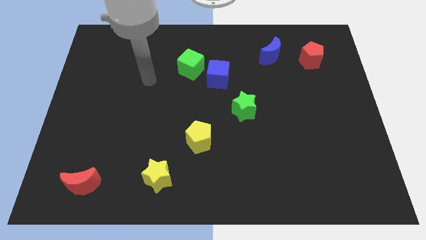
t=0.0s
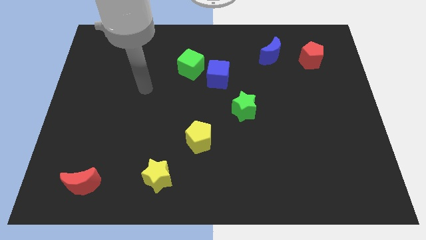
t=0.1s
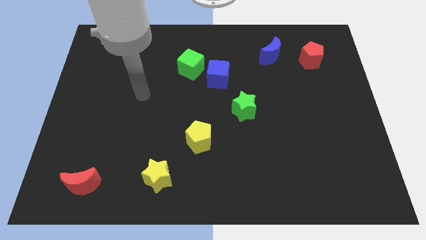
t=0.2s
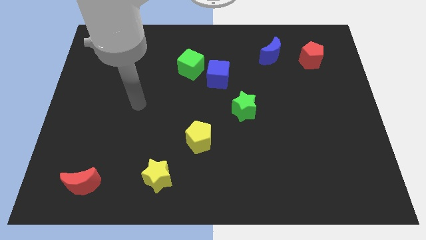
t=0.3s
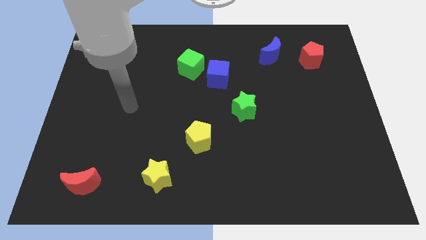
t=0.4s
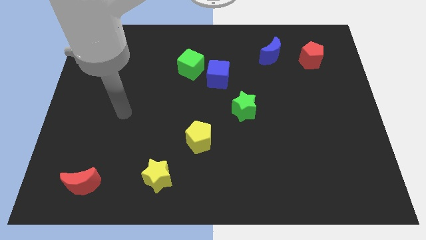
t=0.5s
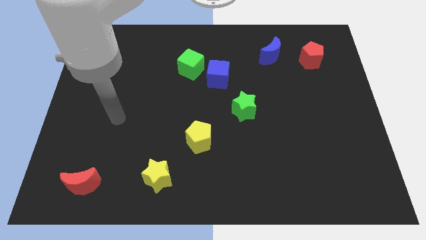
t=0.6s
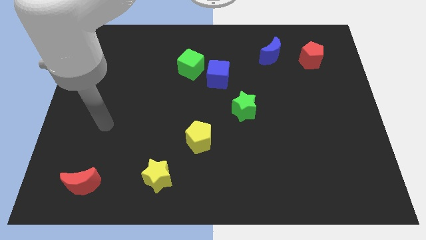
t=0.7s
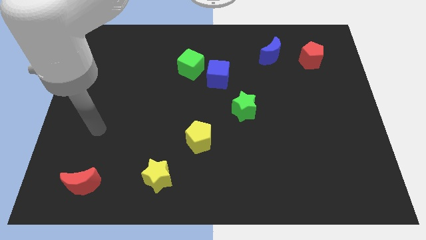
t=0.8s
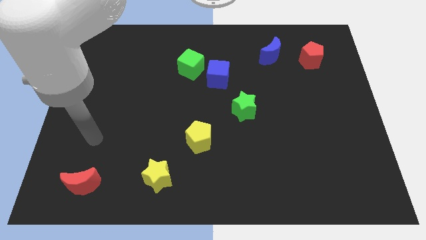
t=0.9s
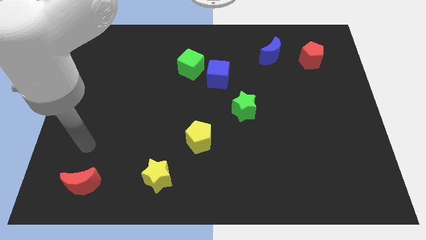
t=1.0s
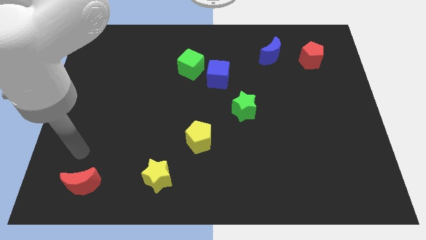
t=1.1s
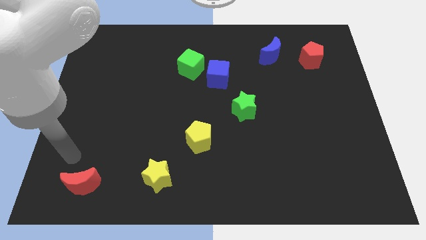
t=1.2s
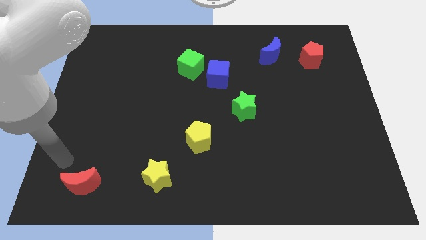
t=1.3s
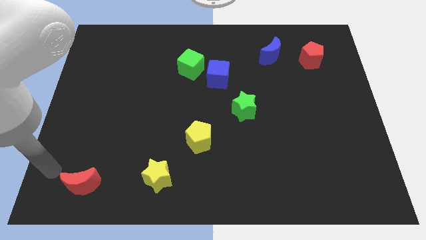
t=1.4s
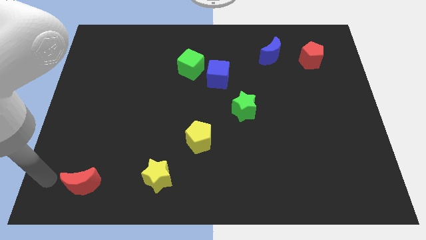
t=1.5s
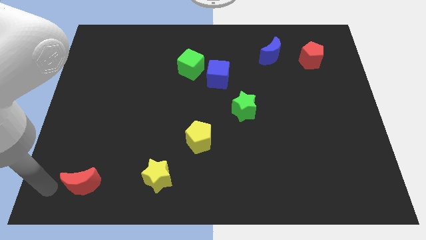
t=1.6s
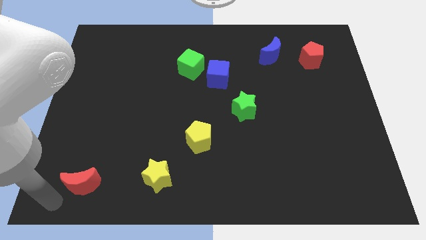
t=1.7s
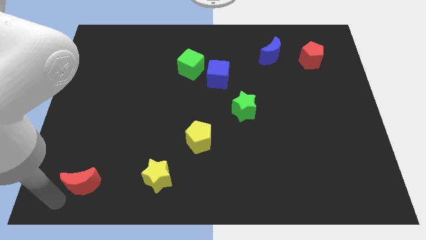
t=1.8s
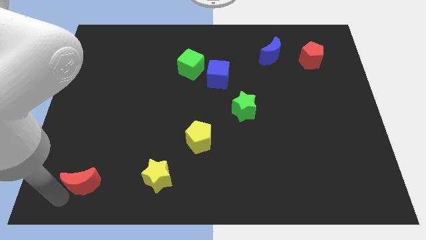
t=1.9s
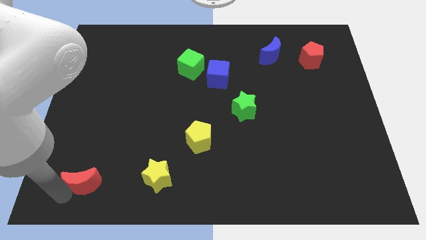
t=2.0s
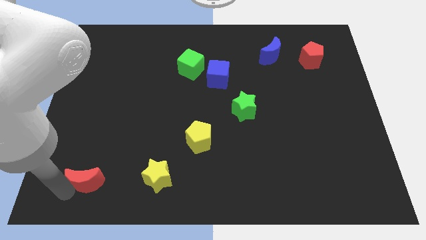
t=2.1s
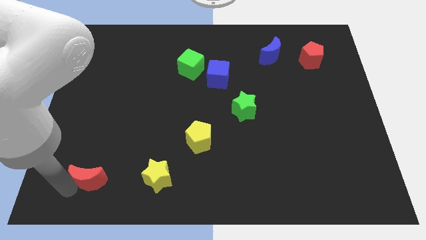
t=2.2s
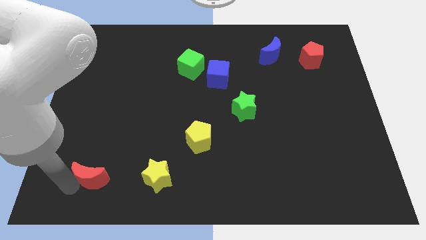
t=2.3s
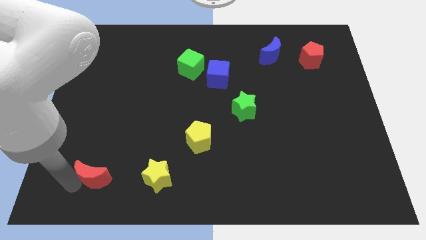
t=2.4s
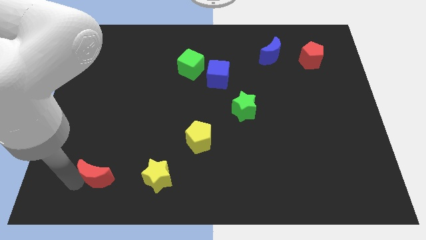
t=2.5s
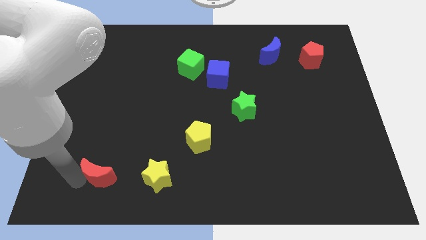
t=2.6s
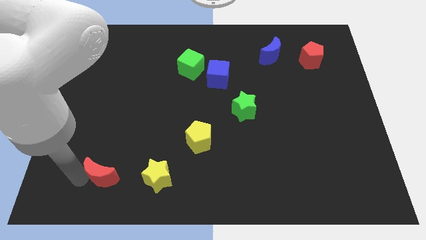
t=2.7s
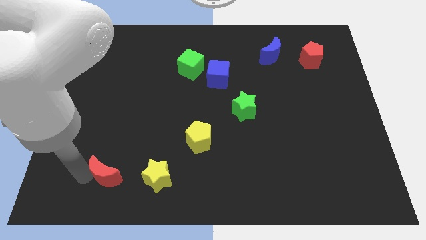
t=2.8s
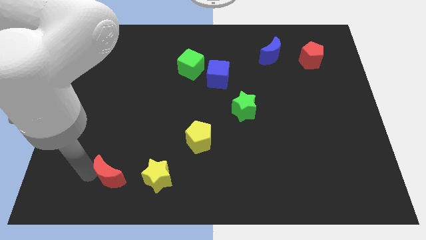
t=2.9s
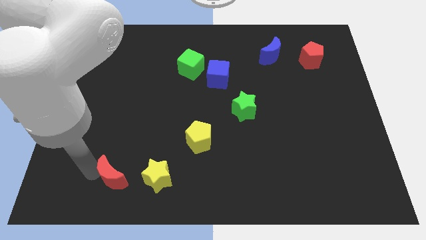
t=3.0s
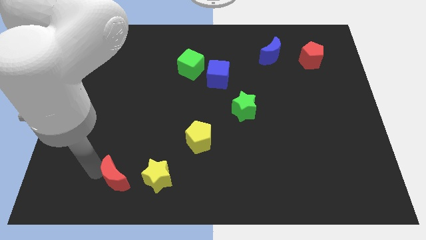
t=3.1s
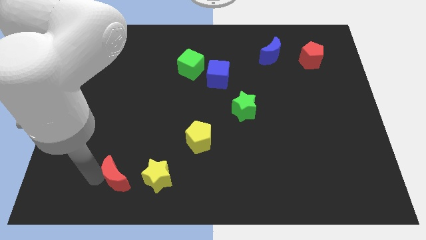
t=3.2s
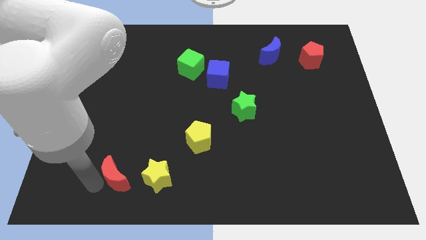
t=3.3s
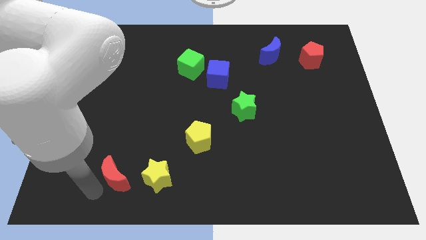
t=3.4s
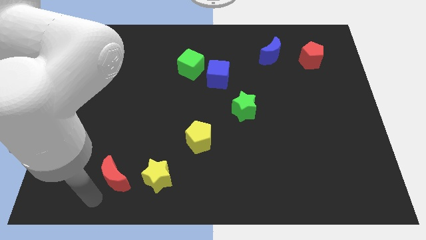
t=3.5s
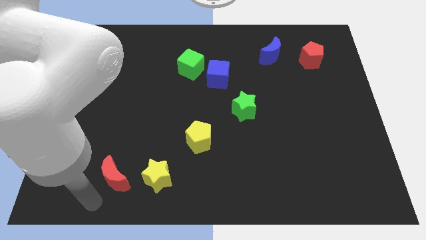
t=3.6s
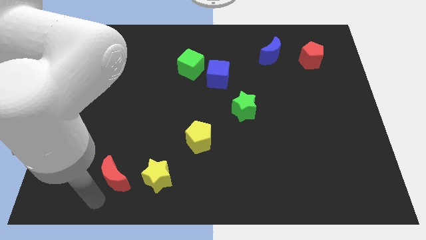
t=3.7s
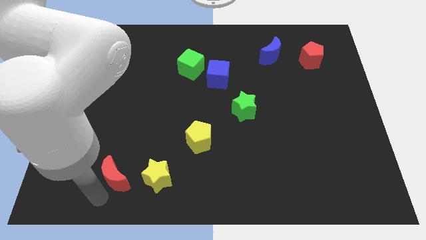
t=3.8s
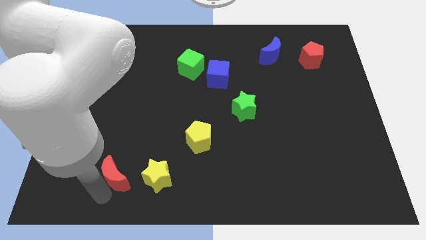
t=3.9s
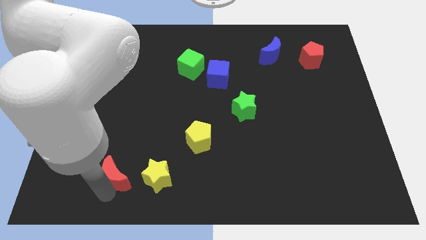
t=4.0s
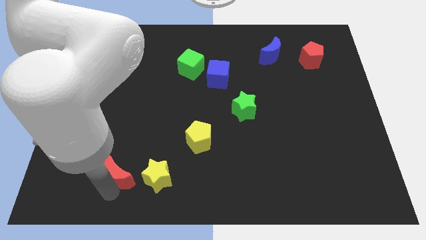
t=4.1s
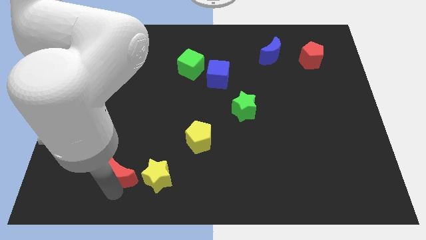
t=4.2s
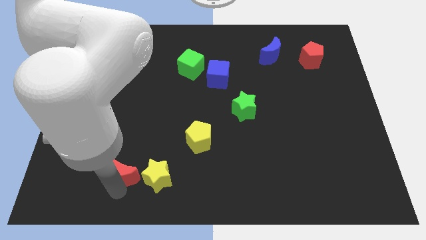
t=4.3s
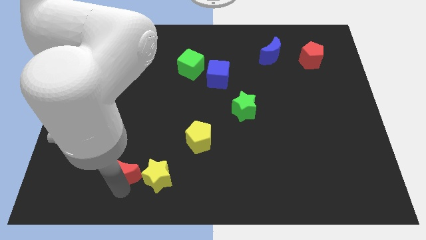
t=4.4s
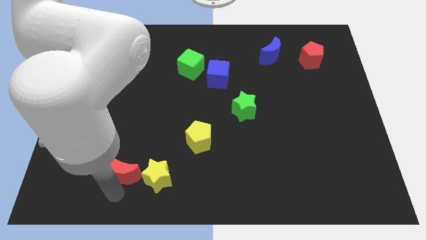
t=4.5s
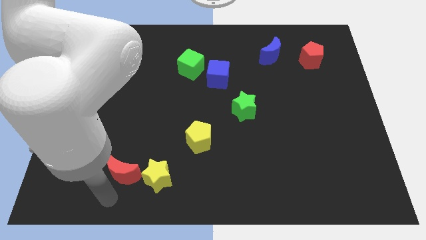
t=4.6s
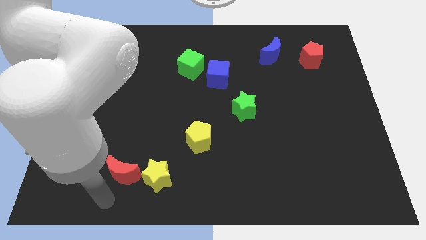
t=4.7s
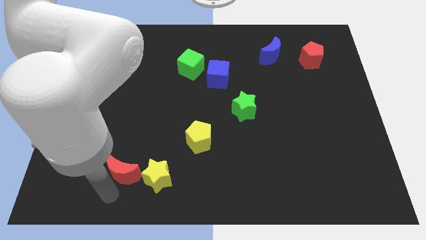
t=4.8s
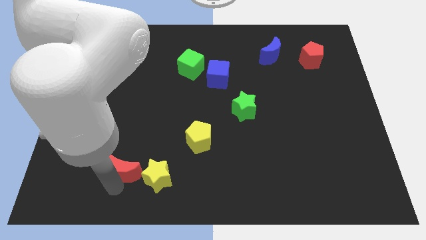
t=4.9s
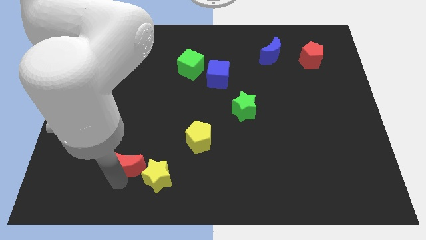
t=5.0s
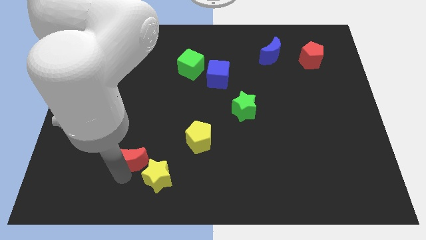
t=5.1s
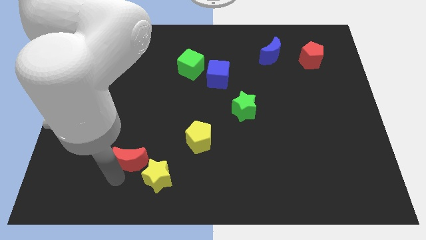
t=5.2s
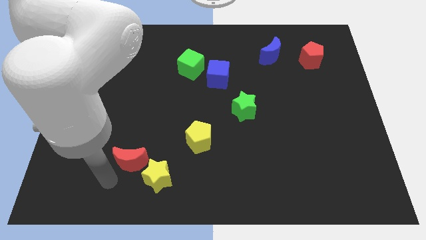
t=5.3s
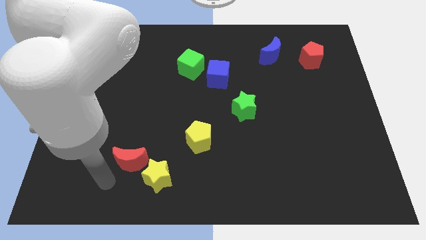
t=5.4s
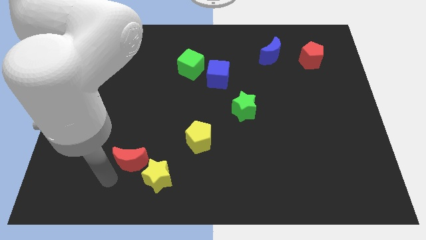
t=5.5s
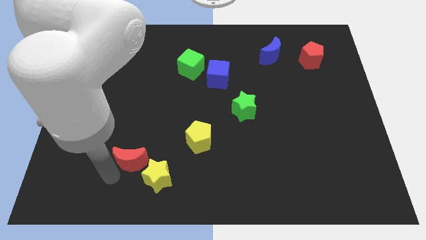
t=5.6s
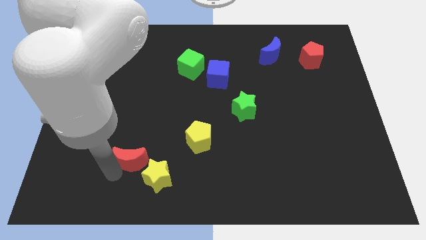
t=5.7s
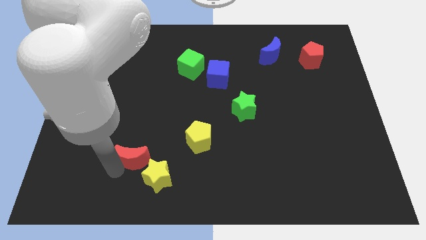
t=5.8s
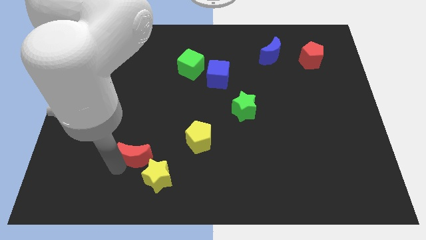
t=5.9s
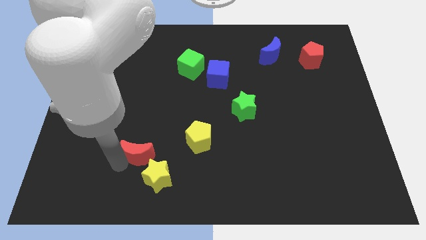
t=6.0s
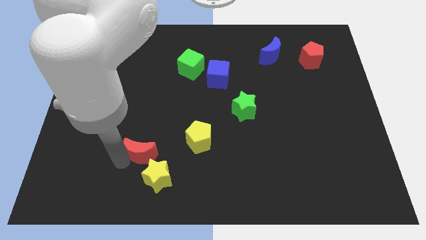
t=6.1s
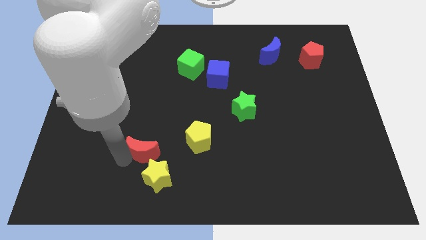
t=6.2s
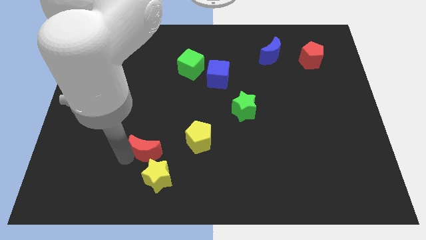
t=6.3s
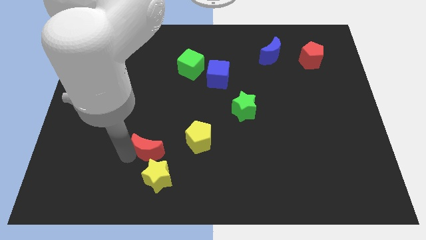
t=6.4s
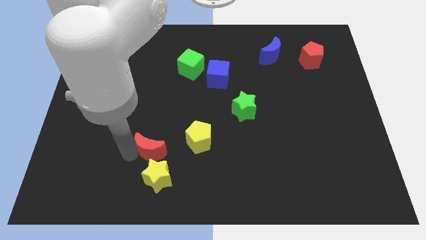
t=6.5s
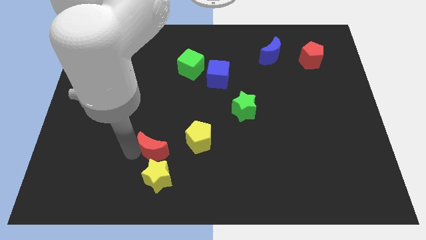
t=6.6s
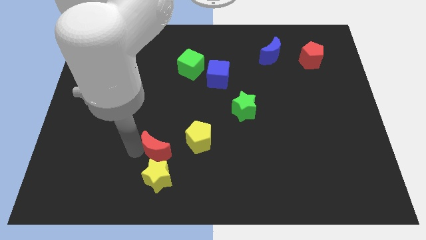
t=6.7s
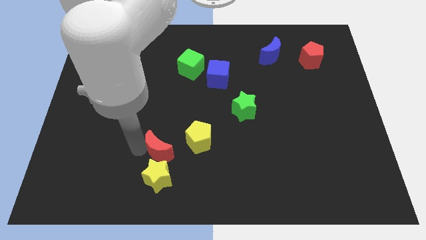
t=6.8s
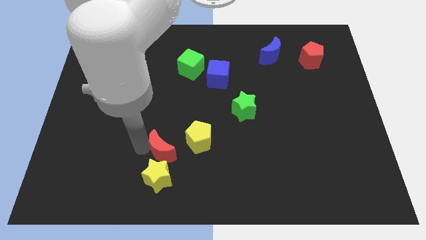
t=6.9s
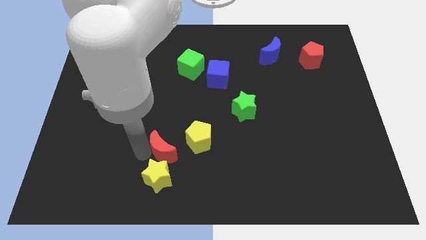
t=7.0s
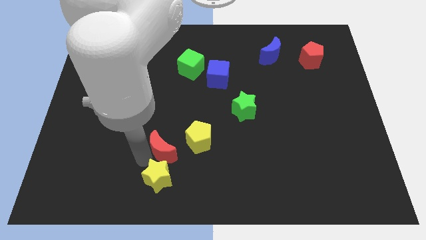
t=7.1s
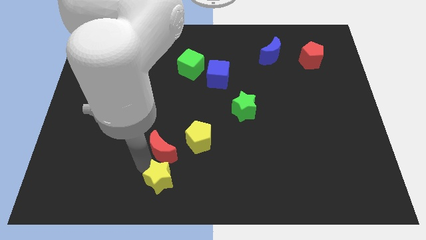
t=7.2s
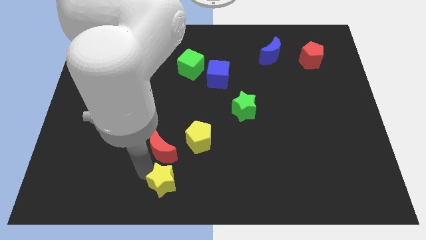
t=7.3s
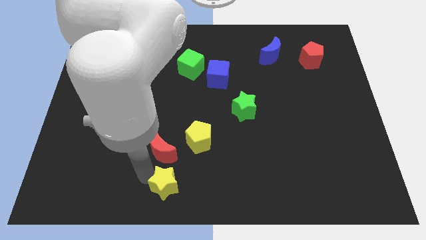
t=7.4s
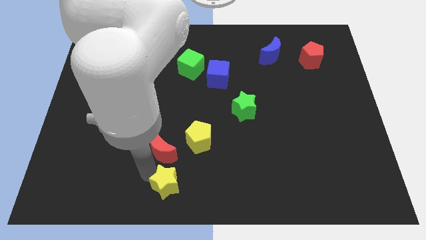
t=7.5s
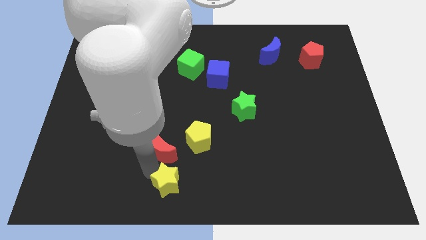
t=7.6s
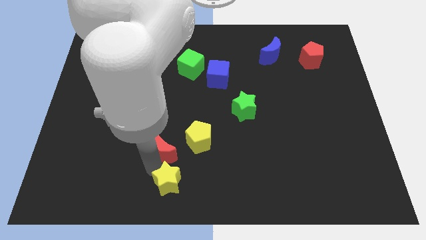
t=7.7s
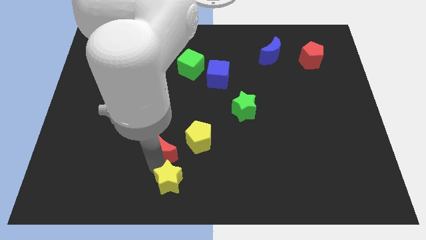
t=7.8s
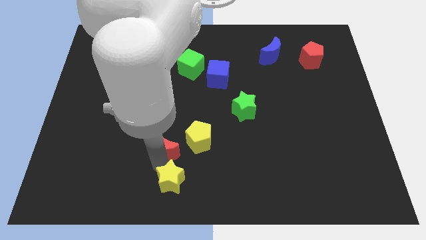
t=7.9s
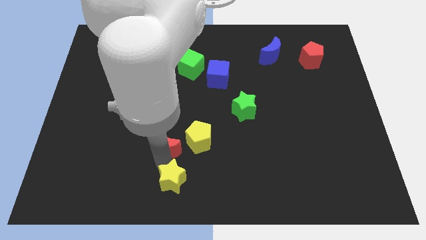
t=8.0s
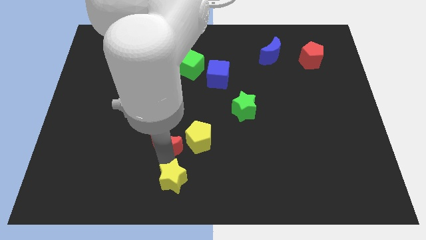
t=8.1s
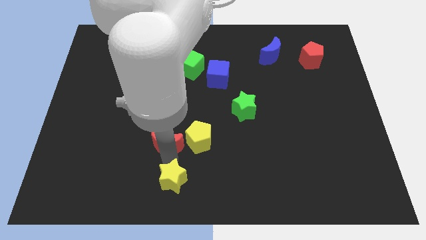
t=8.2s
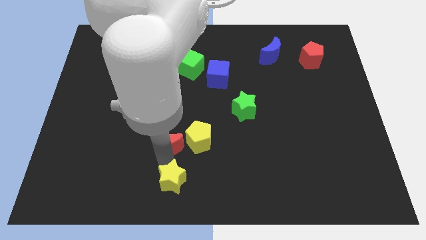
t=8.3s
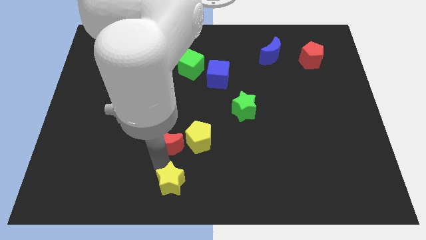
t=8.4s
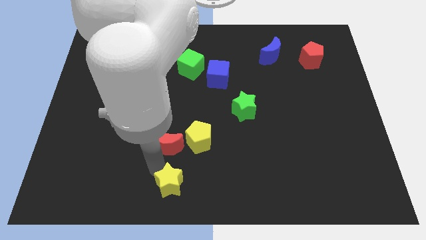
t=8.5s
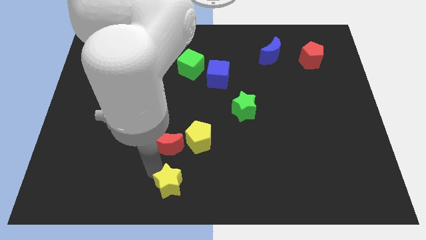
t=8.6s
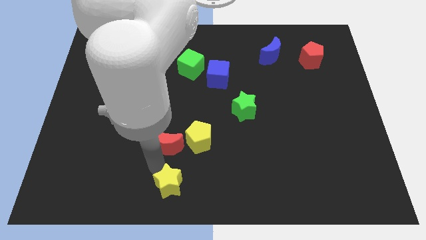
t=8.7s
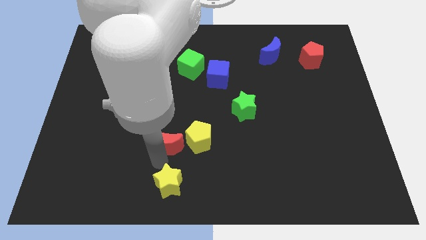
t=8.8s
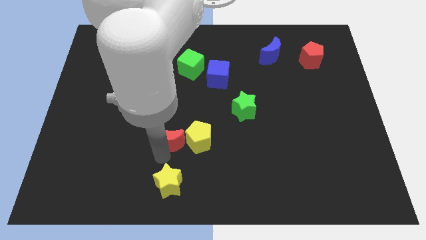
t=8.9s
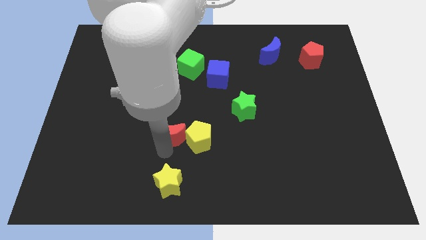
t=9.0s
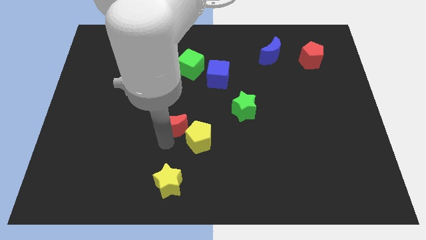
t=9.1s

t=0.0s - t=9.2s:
put the red moon to the center
